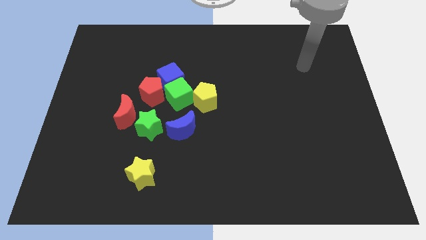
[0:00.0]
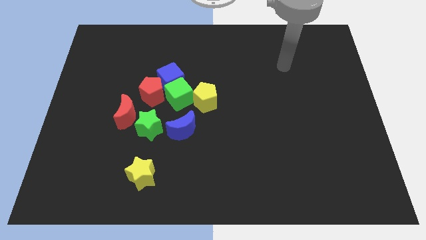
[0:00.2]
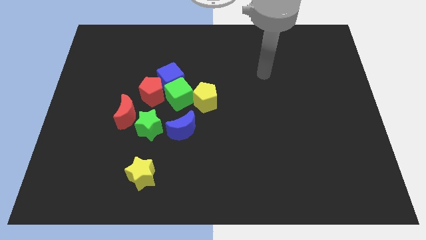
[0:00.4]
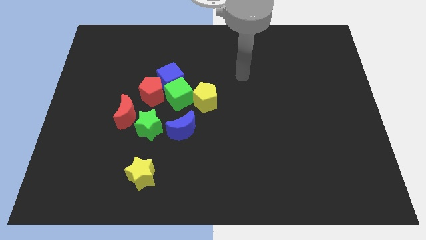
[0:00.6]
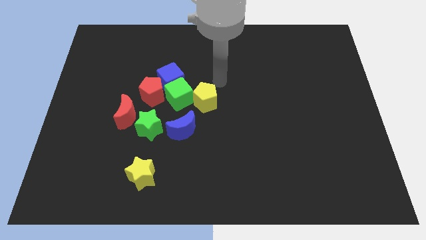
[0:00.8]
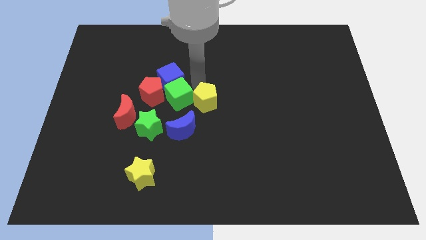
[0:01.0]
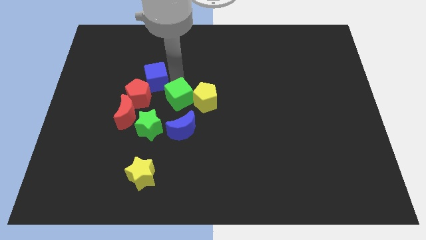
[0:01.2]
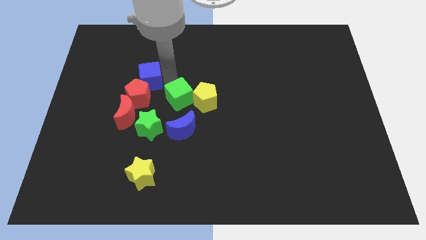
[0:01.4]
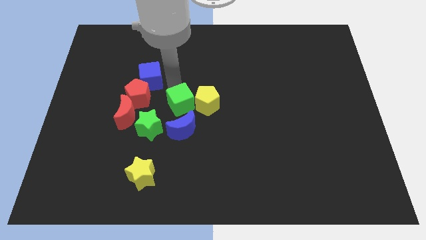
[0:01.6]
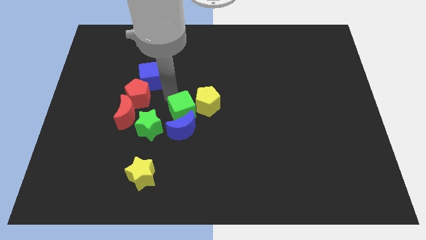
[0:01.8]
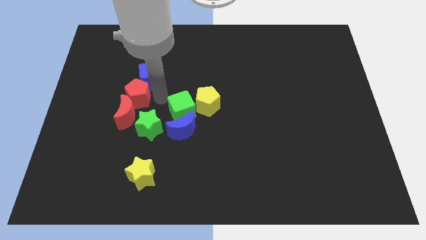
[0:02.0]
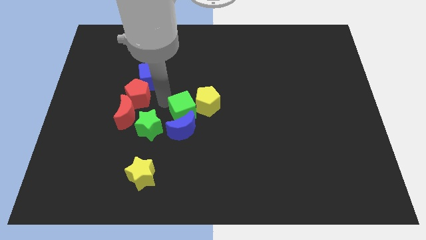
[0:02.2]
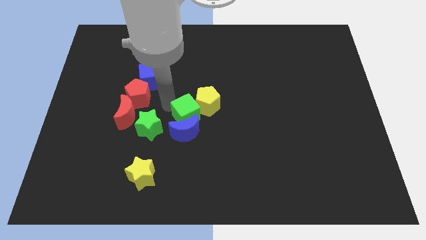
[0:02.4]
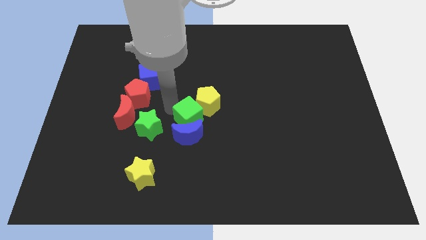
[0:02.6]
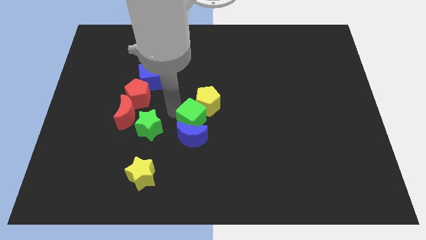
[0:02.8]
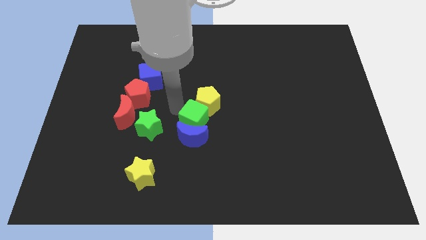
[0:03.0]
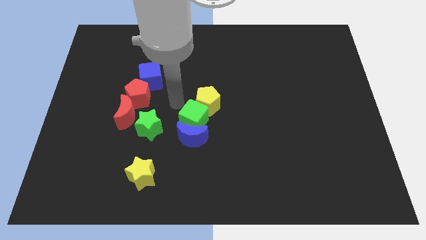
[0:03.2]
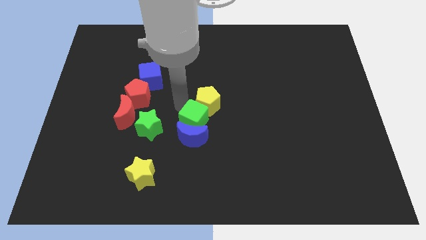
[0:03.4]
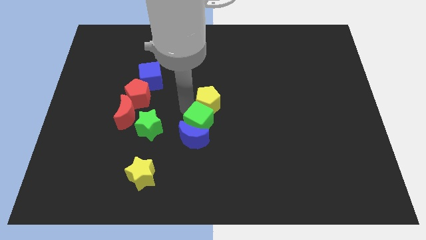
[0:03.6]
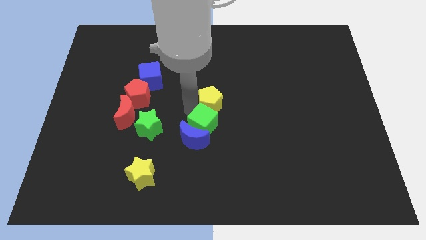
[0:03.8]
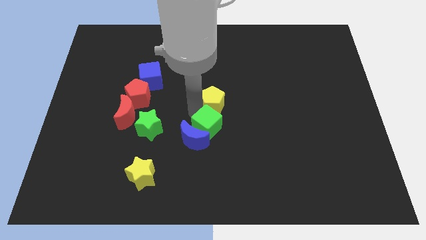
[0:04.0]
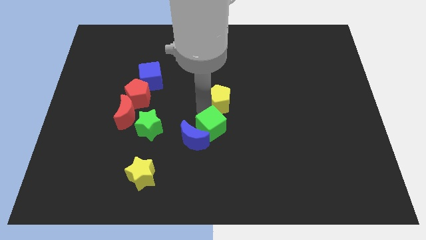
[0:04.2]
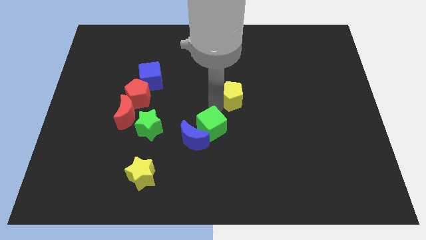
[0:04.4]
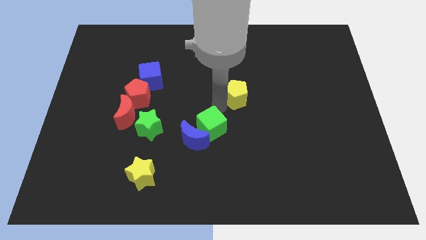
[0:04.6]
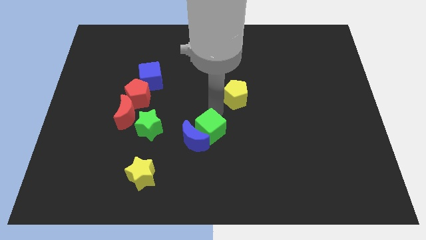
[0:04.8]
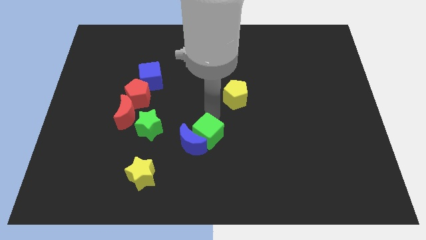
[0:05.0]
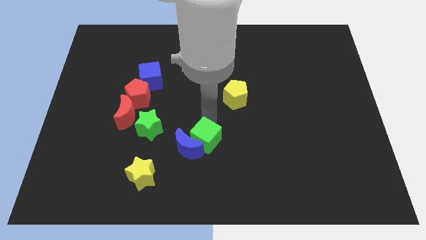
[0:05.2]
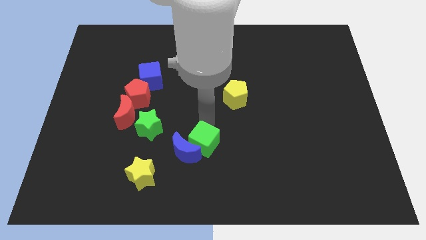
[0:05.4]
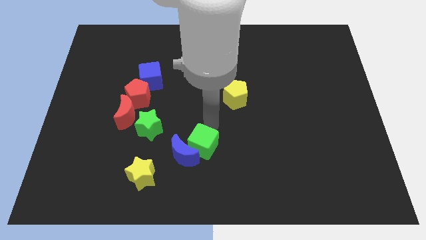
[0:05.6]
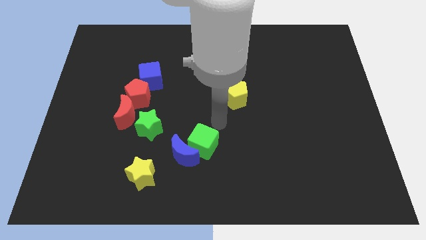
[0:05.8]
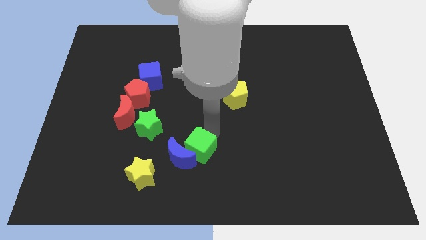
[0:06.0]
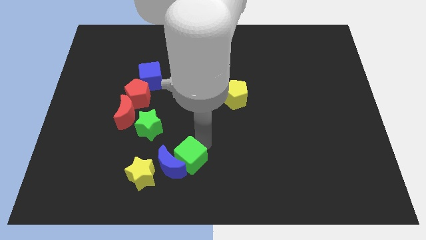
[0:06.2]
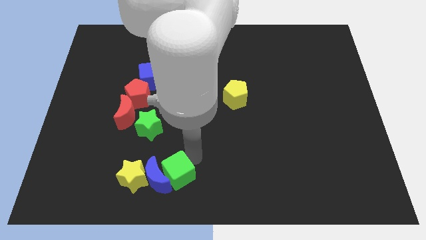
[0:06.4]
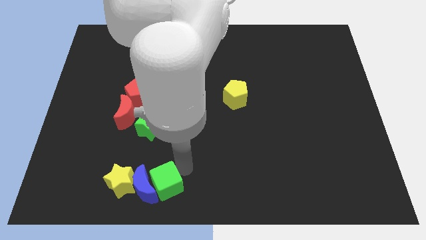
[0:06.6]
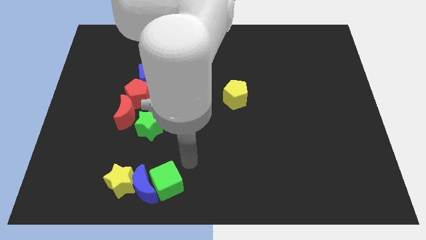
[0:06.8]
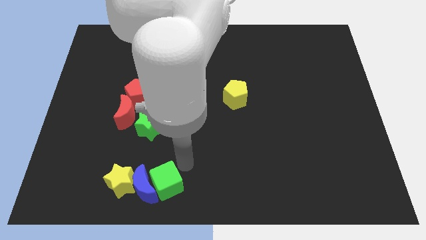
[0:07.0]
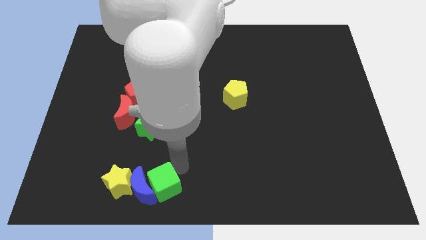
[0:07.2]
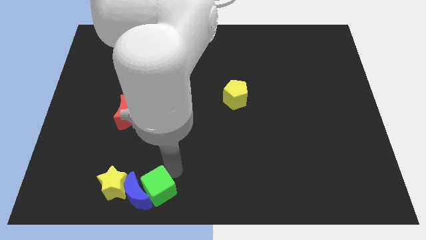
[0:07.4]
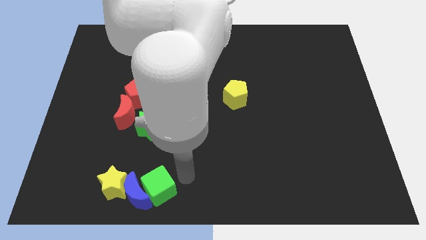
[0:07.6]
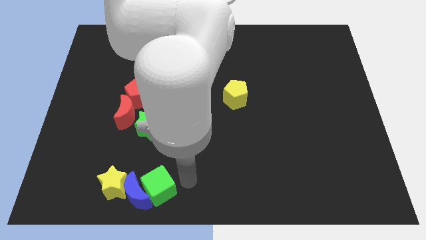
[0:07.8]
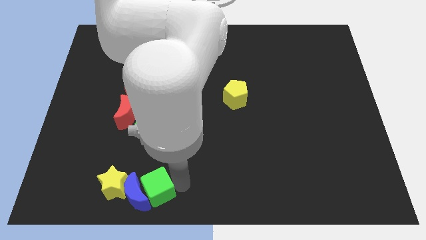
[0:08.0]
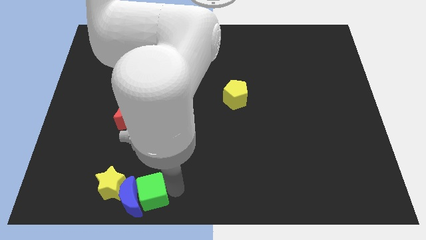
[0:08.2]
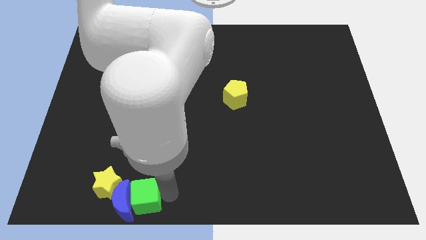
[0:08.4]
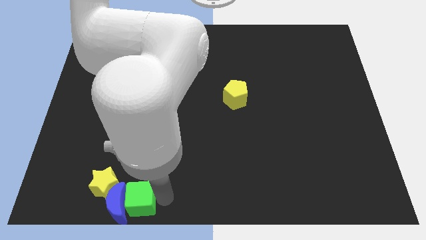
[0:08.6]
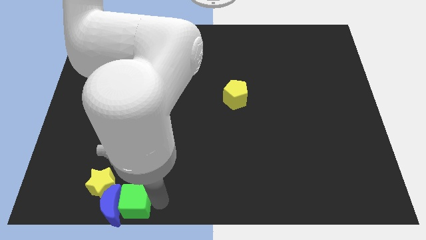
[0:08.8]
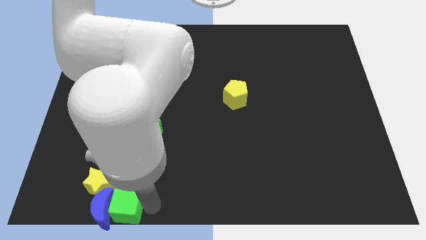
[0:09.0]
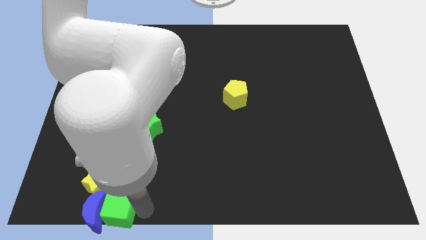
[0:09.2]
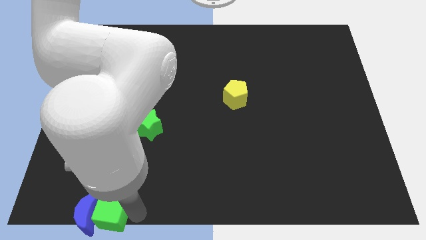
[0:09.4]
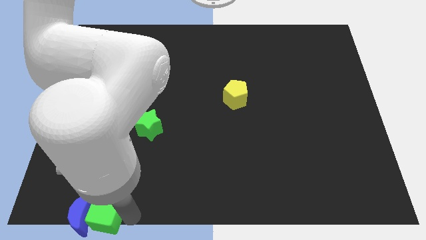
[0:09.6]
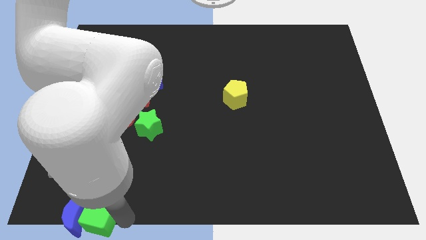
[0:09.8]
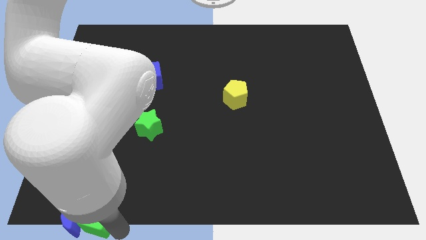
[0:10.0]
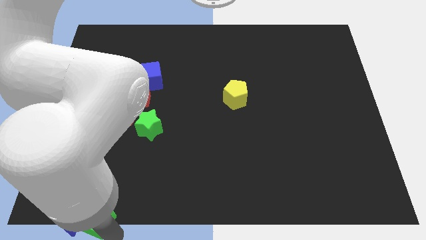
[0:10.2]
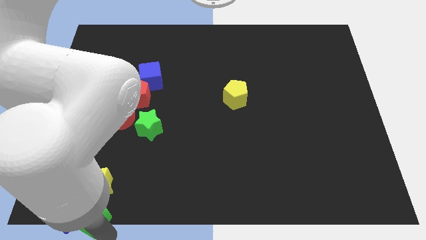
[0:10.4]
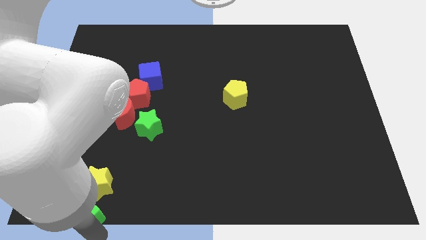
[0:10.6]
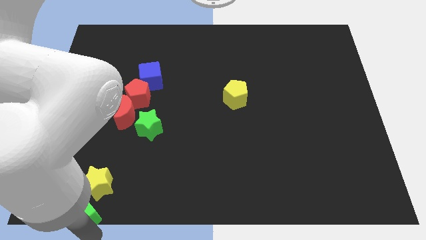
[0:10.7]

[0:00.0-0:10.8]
put the green cube to the bottom left
